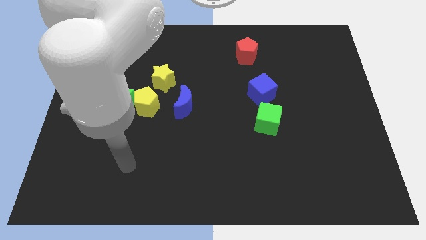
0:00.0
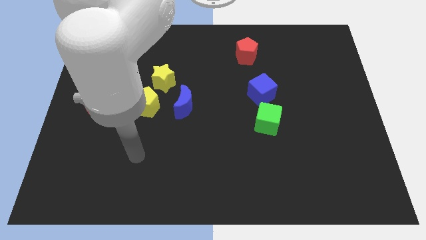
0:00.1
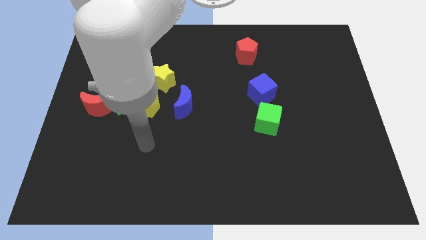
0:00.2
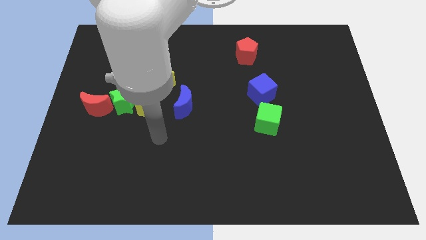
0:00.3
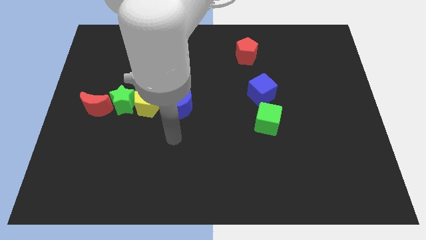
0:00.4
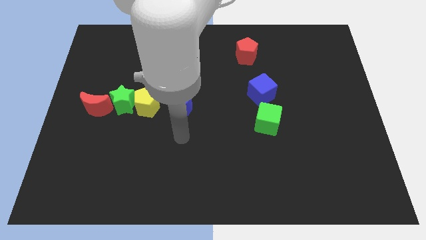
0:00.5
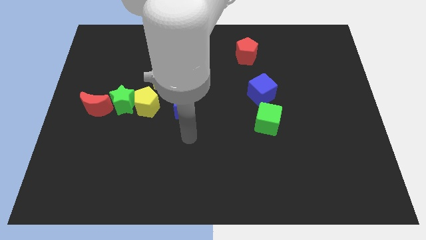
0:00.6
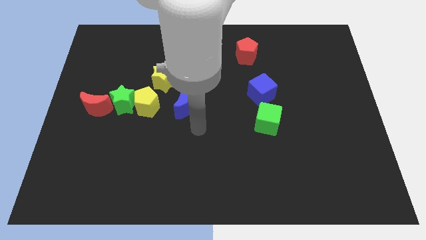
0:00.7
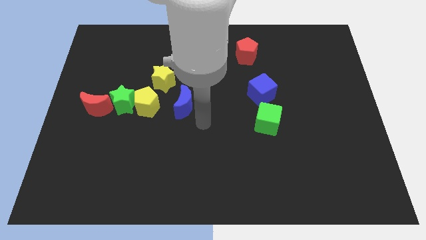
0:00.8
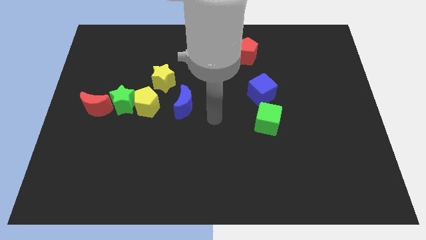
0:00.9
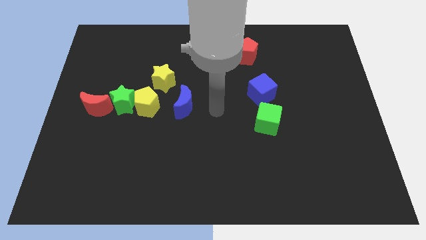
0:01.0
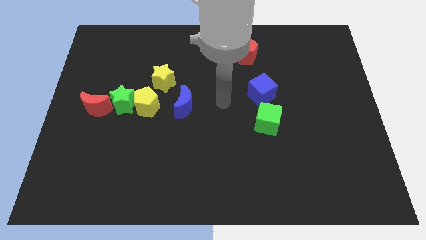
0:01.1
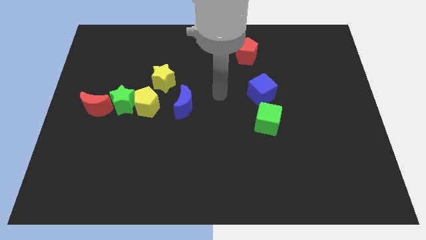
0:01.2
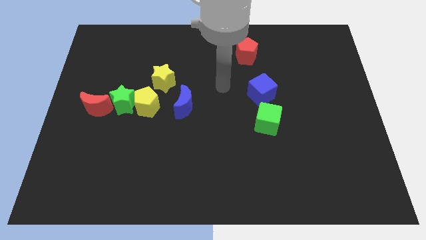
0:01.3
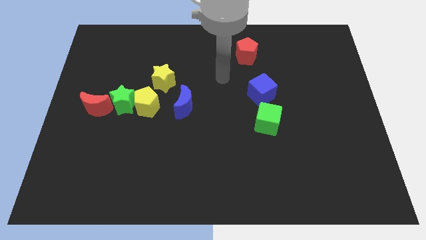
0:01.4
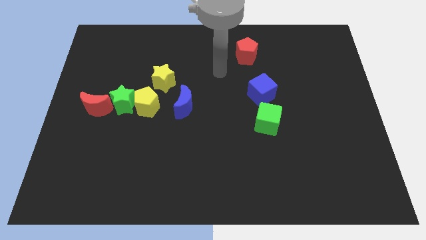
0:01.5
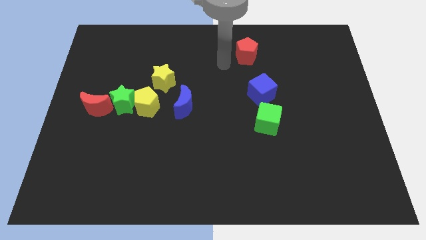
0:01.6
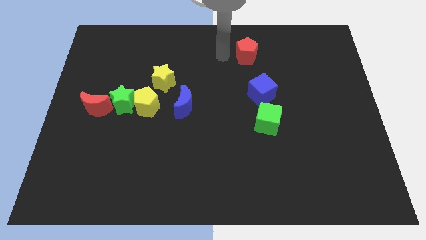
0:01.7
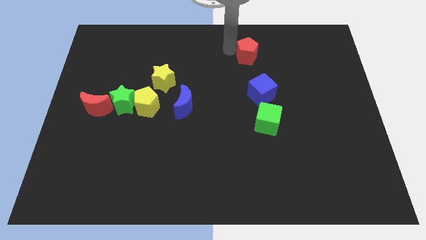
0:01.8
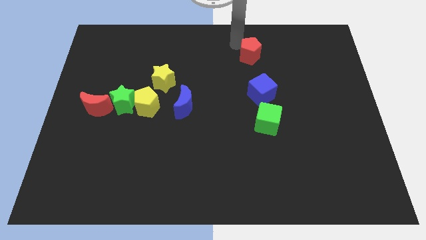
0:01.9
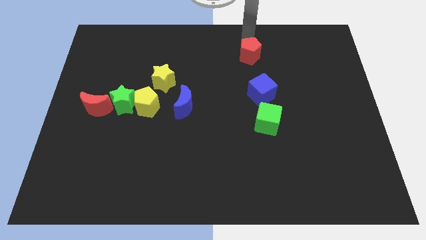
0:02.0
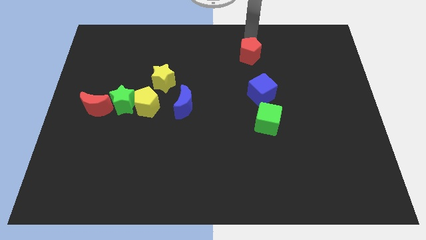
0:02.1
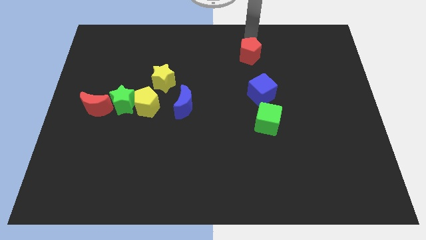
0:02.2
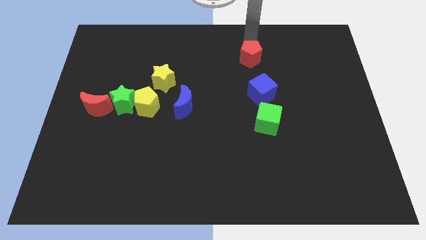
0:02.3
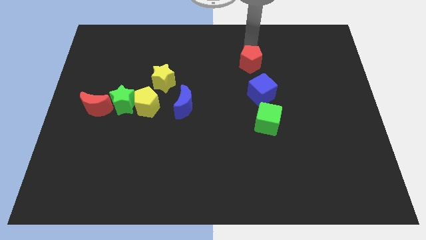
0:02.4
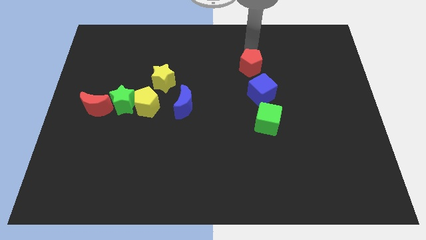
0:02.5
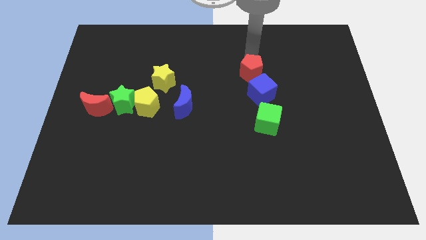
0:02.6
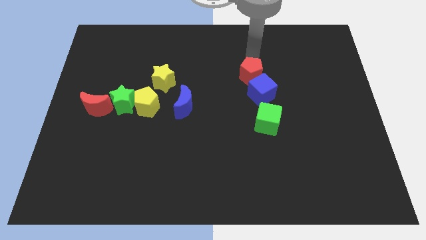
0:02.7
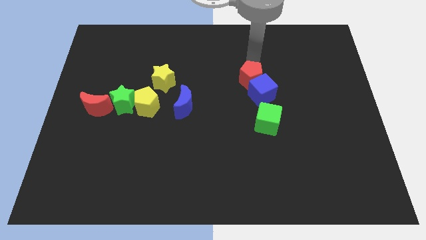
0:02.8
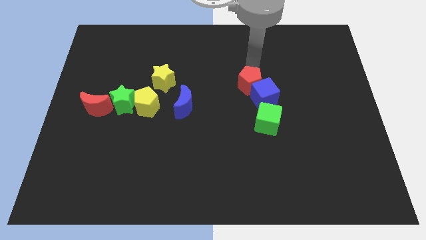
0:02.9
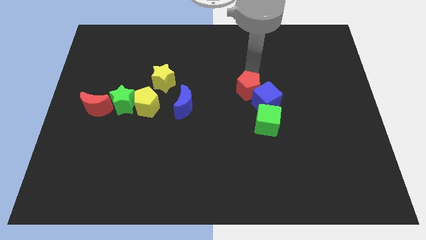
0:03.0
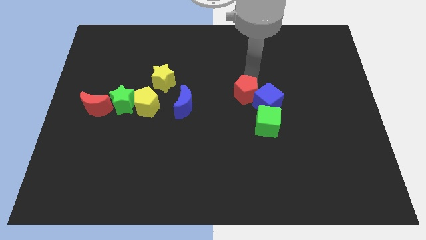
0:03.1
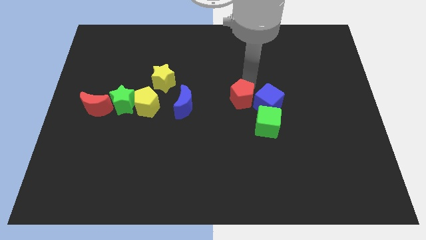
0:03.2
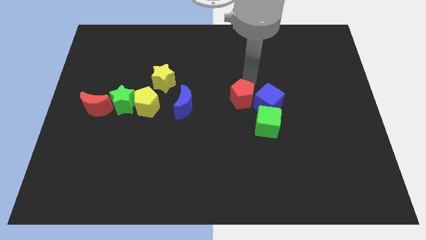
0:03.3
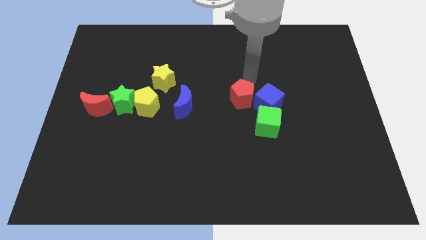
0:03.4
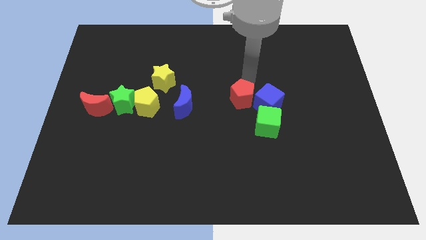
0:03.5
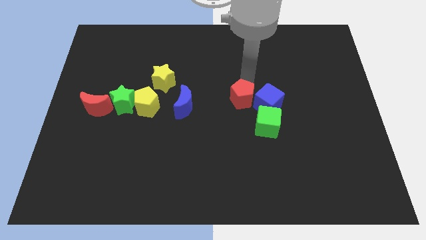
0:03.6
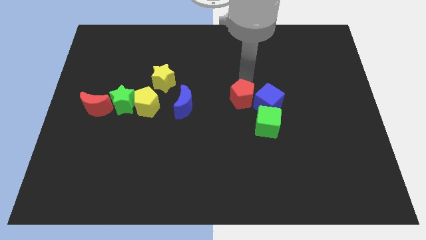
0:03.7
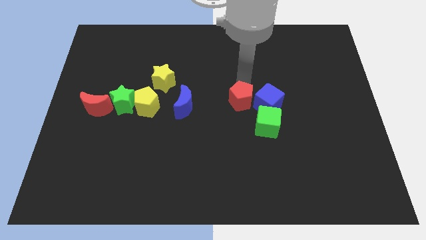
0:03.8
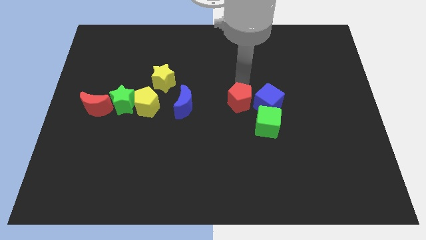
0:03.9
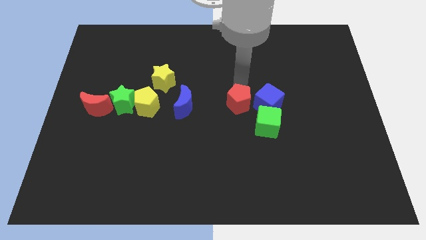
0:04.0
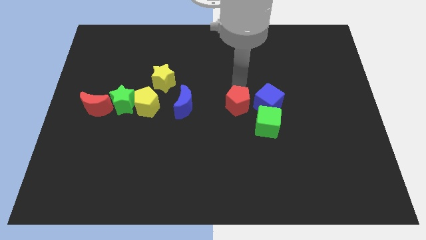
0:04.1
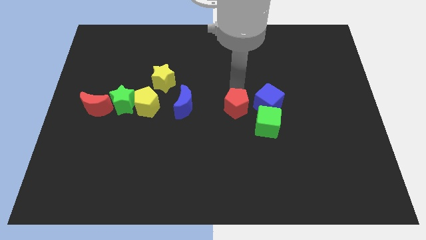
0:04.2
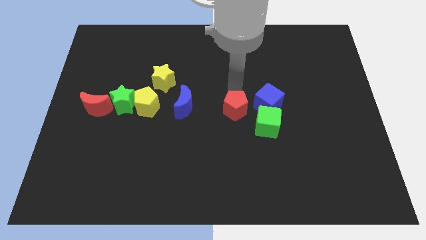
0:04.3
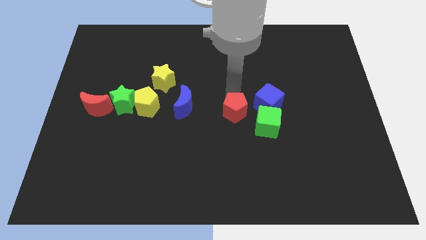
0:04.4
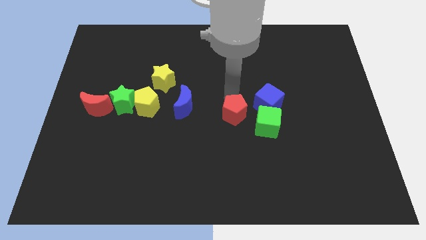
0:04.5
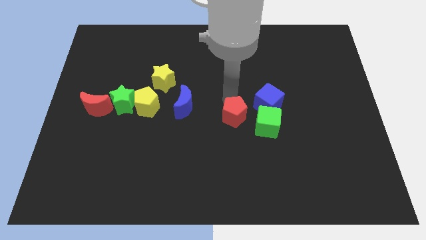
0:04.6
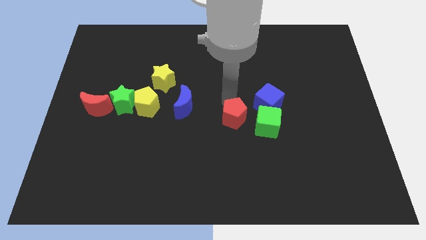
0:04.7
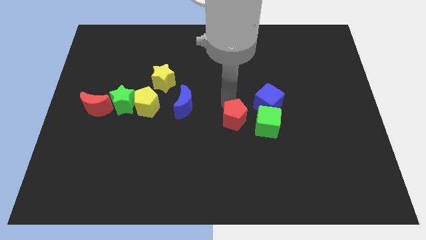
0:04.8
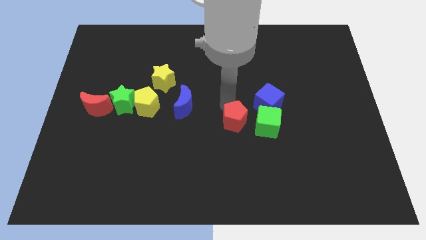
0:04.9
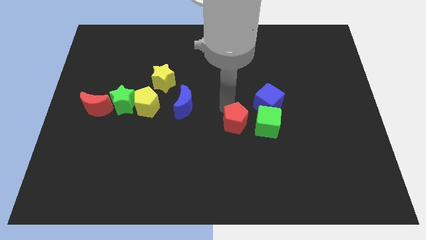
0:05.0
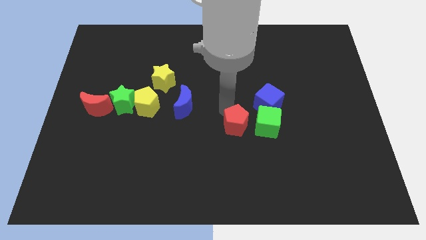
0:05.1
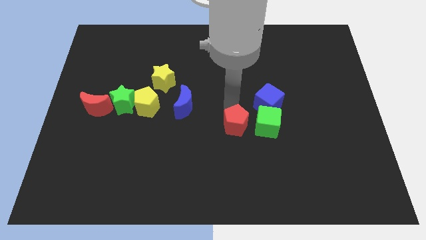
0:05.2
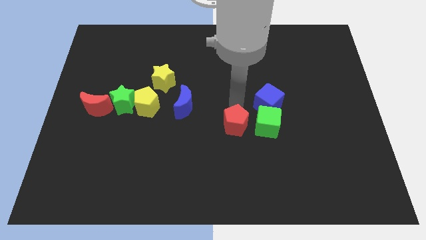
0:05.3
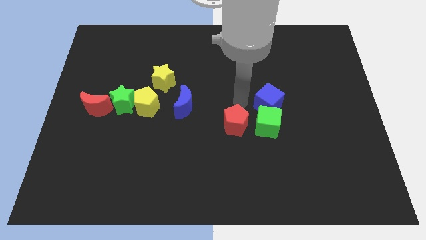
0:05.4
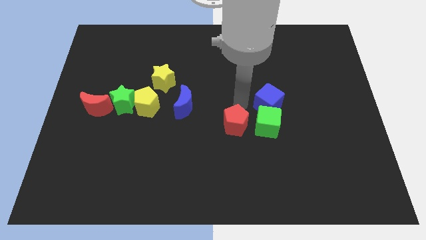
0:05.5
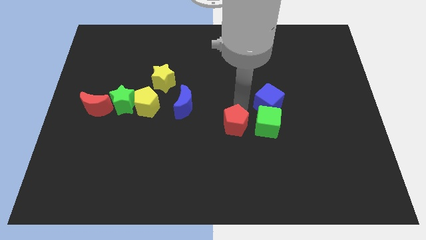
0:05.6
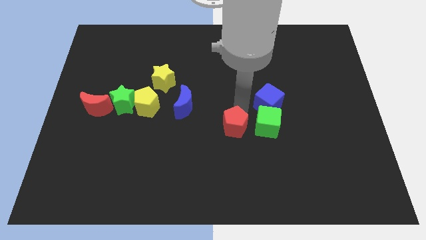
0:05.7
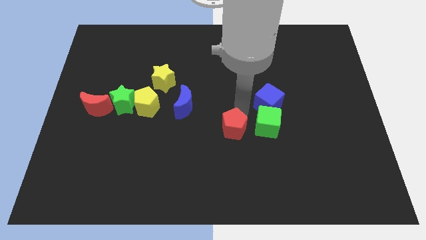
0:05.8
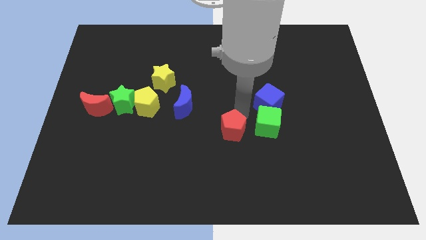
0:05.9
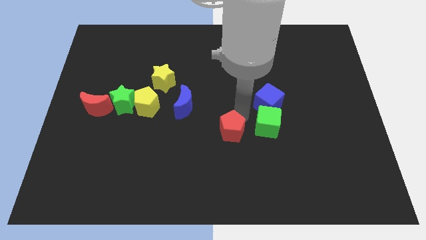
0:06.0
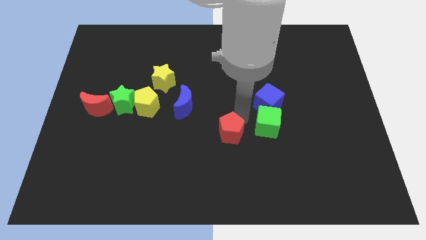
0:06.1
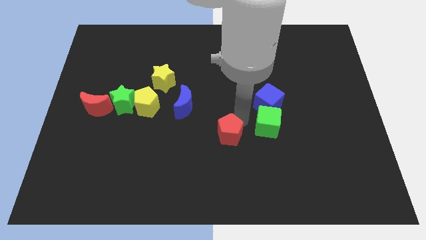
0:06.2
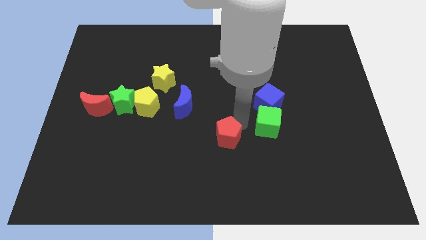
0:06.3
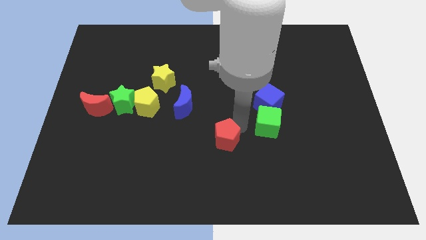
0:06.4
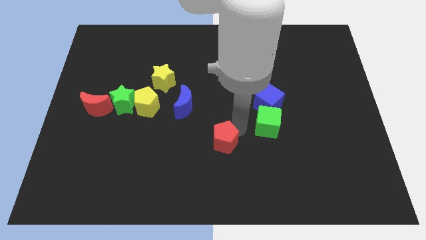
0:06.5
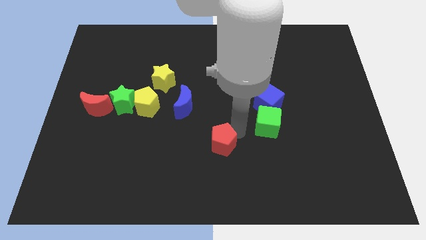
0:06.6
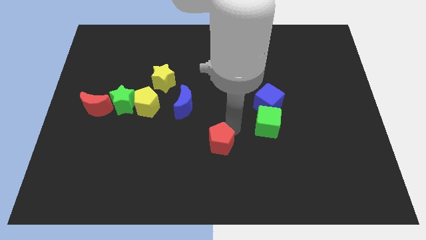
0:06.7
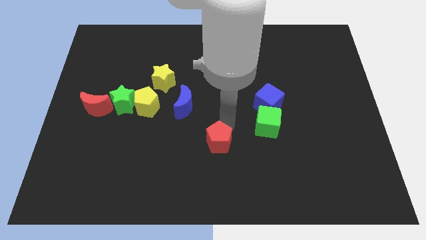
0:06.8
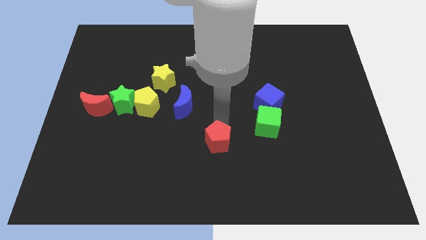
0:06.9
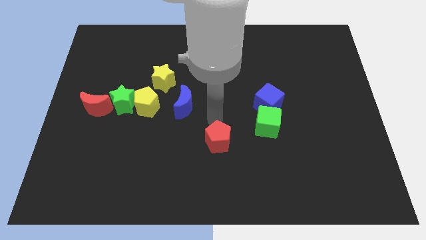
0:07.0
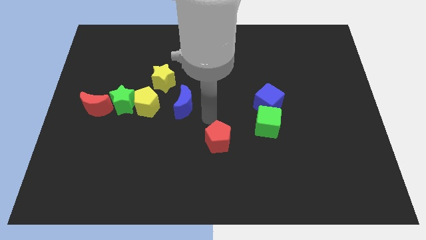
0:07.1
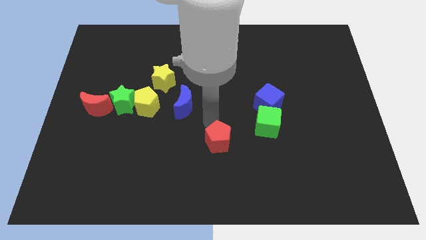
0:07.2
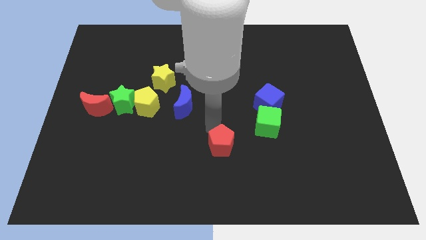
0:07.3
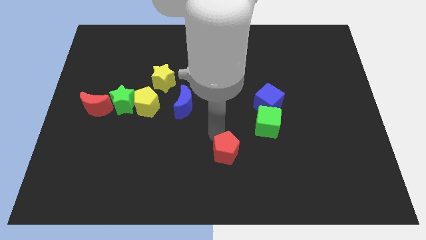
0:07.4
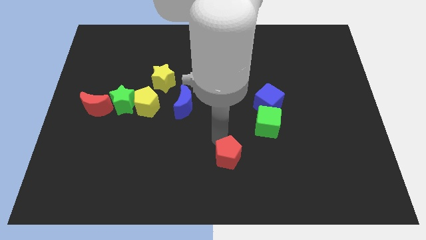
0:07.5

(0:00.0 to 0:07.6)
slide the red pentagon to the bottom side
